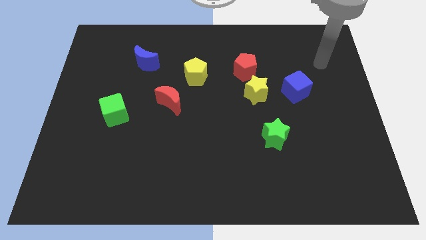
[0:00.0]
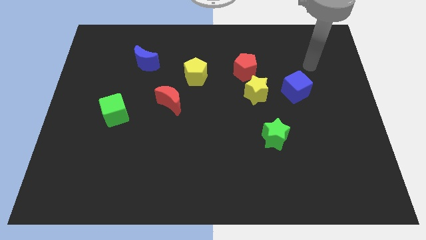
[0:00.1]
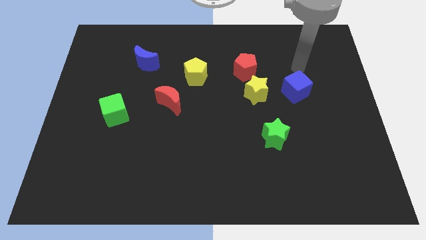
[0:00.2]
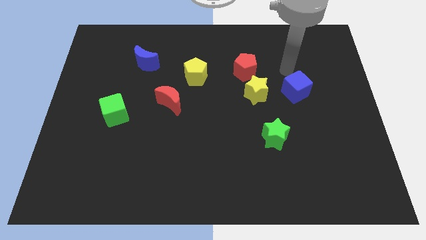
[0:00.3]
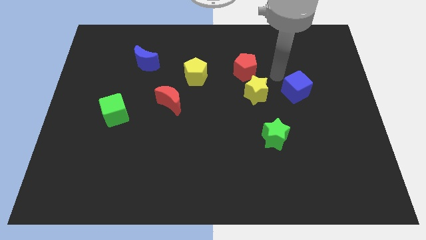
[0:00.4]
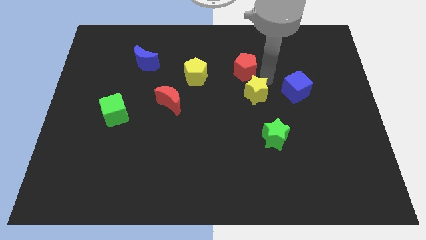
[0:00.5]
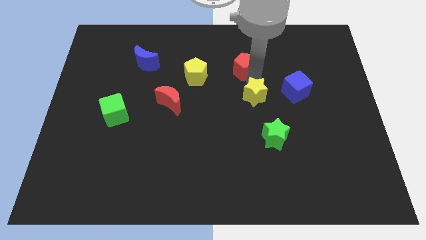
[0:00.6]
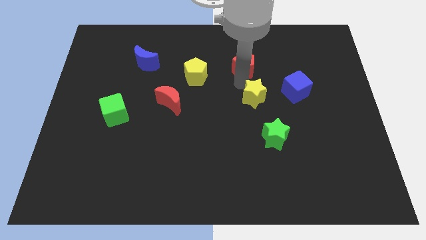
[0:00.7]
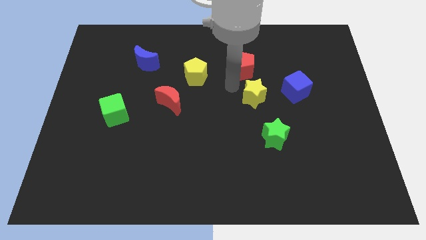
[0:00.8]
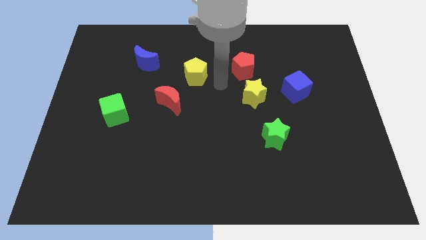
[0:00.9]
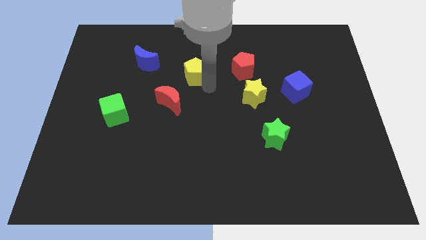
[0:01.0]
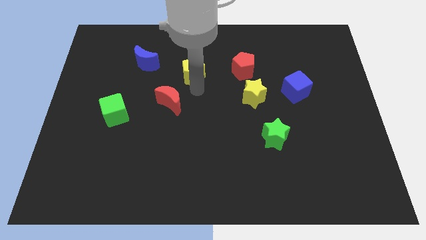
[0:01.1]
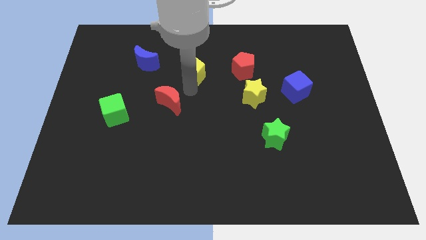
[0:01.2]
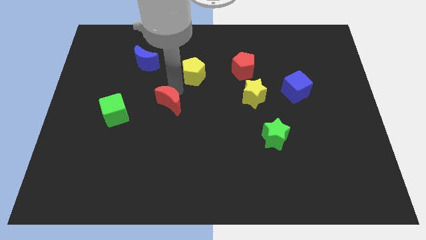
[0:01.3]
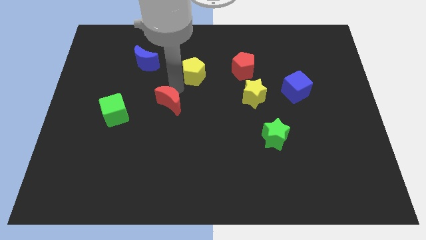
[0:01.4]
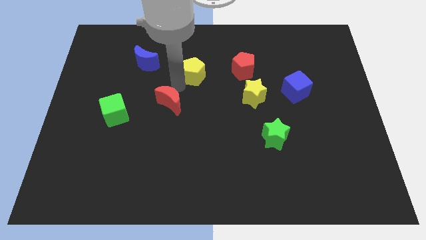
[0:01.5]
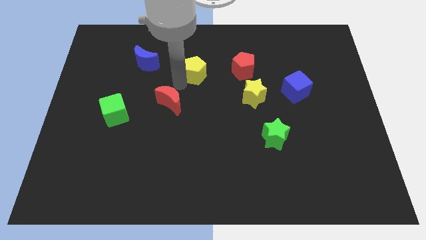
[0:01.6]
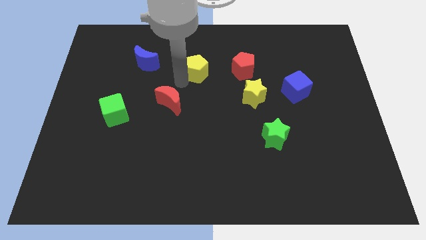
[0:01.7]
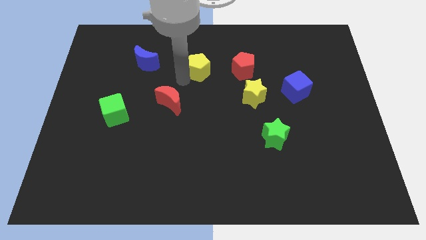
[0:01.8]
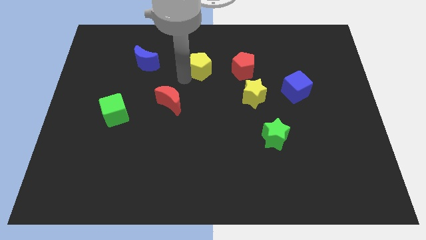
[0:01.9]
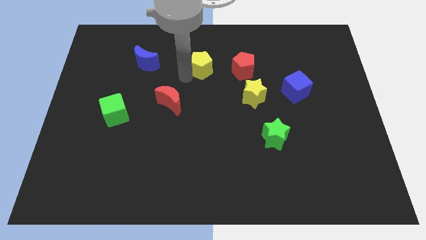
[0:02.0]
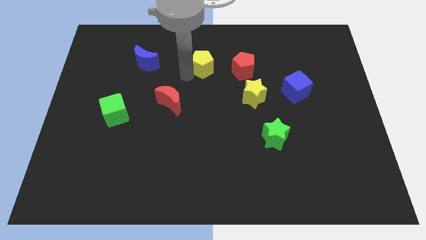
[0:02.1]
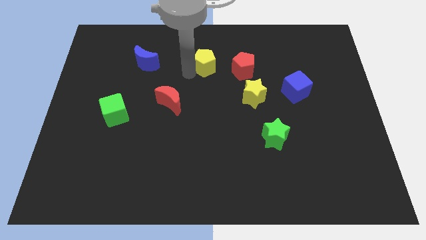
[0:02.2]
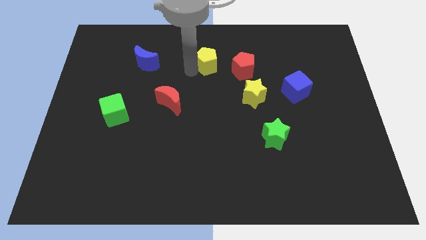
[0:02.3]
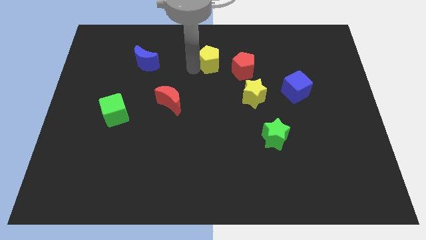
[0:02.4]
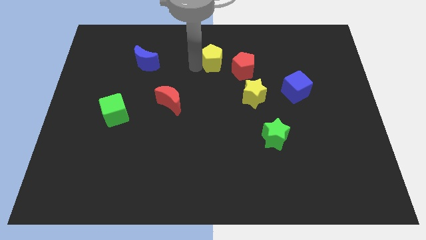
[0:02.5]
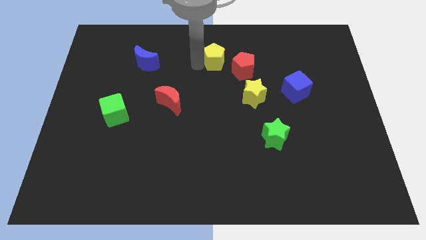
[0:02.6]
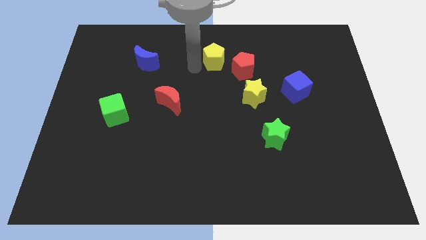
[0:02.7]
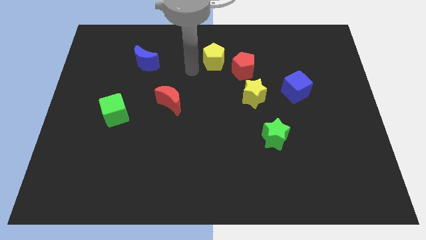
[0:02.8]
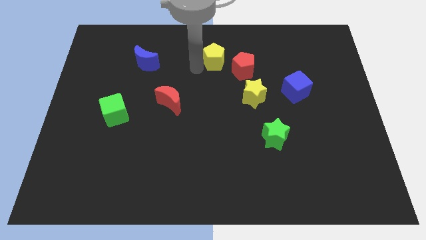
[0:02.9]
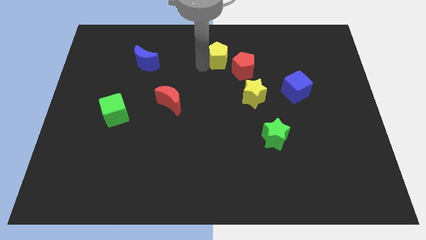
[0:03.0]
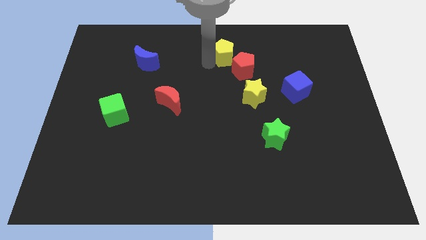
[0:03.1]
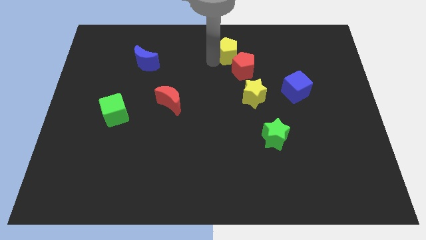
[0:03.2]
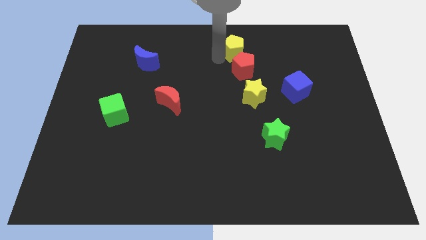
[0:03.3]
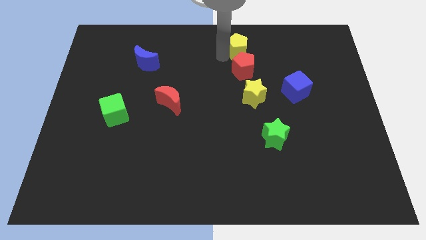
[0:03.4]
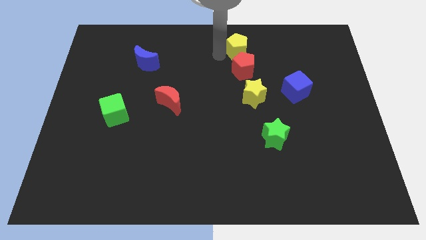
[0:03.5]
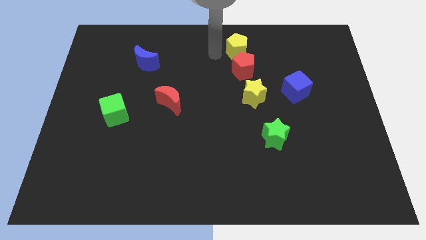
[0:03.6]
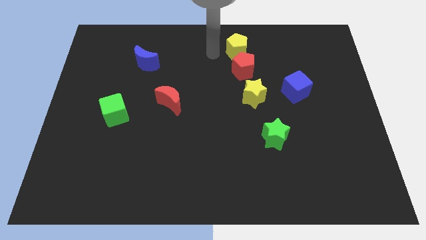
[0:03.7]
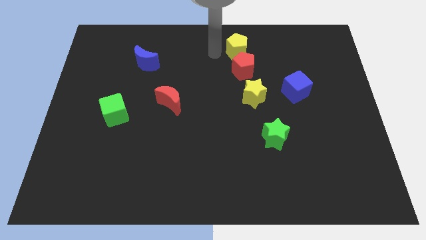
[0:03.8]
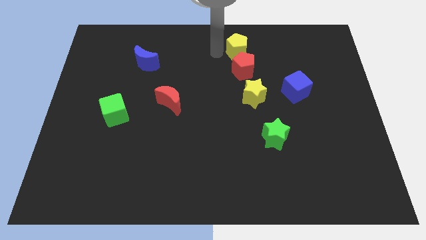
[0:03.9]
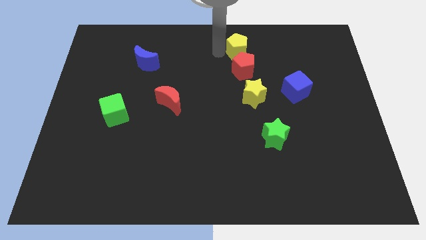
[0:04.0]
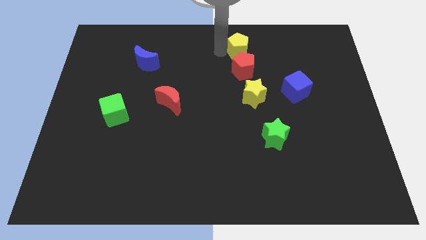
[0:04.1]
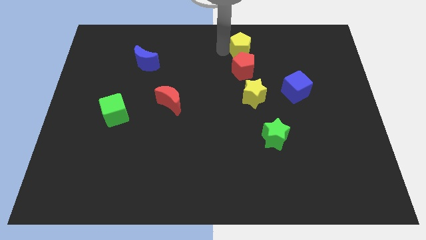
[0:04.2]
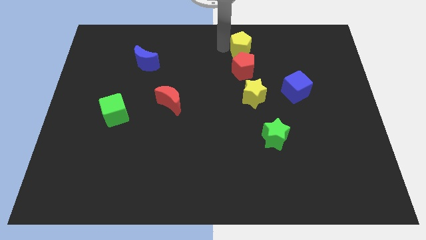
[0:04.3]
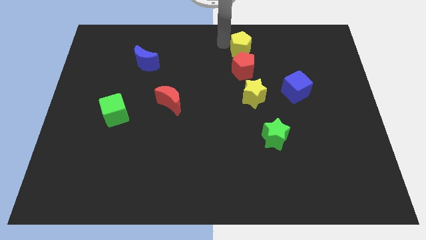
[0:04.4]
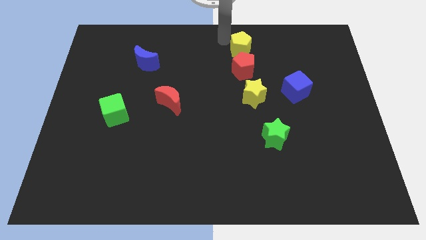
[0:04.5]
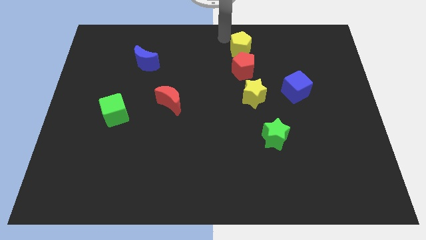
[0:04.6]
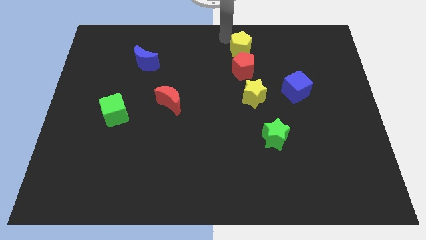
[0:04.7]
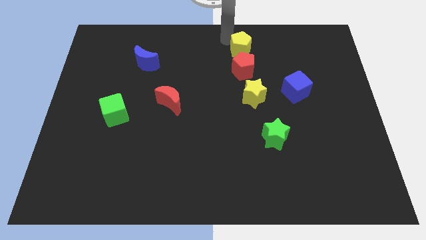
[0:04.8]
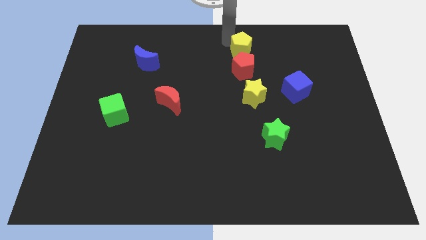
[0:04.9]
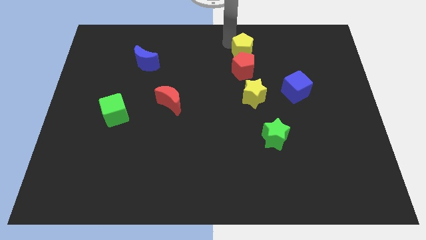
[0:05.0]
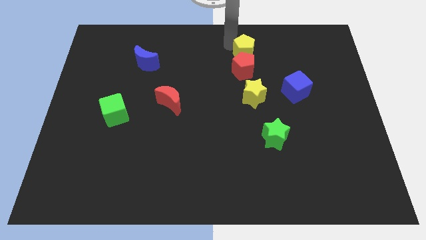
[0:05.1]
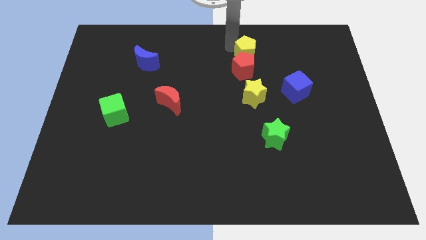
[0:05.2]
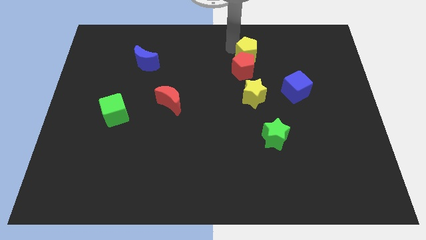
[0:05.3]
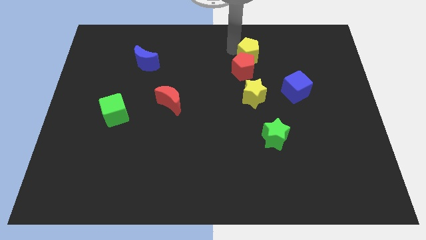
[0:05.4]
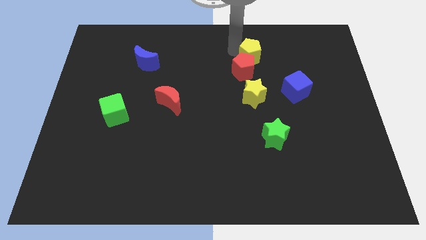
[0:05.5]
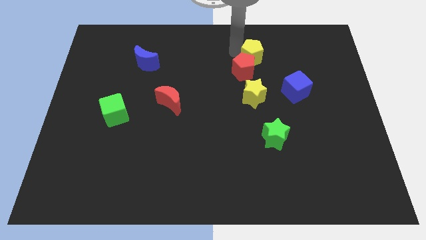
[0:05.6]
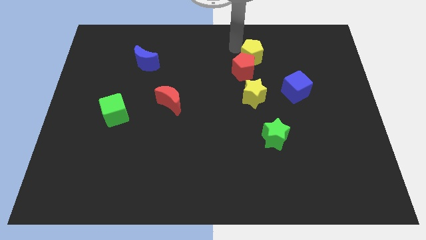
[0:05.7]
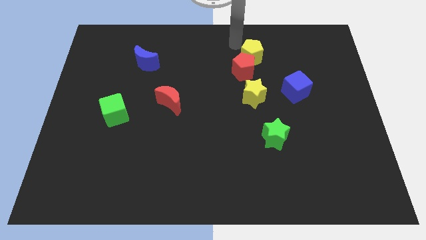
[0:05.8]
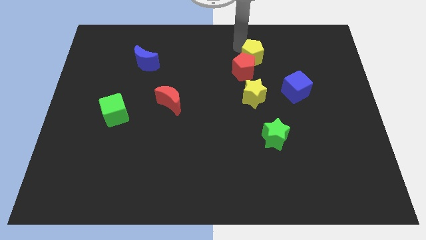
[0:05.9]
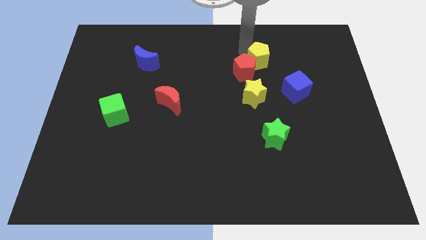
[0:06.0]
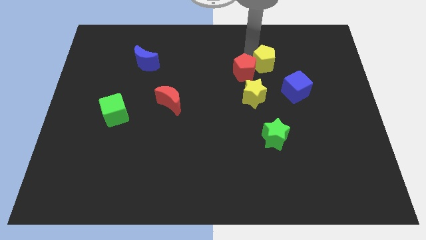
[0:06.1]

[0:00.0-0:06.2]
put the yellow pentagon diagonally up and to the left of the blue cube
